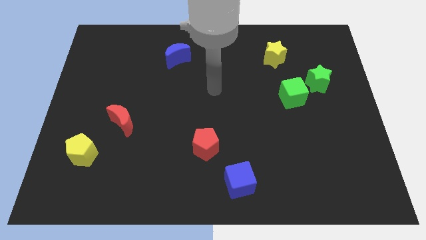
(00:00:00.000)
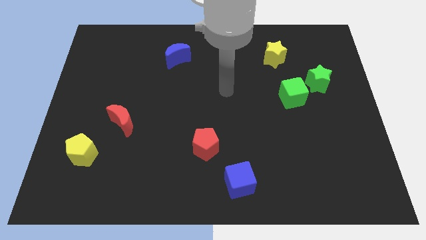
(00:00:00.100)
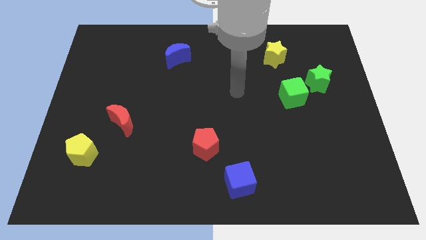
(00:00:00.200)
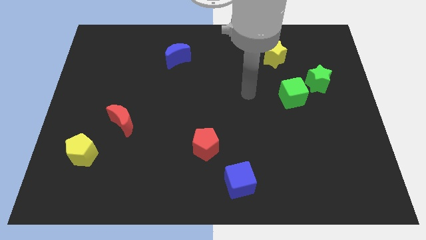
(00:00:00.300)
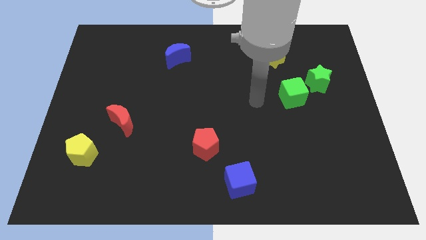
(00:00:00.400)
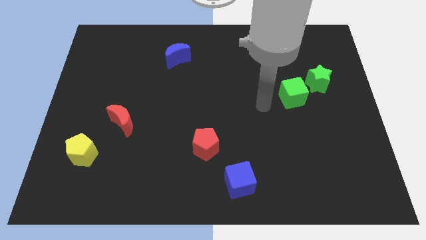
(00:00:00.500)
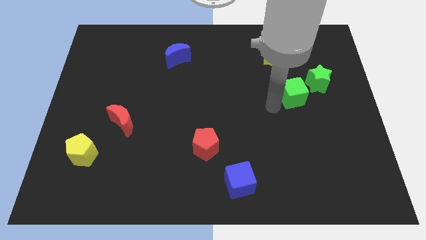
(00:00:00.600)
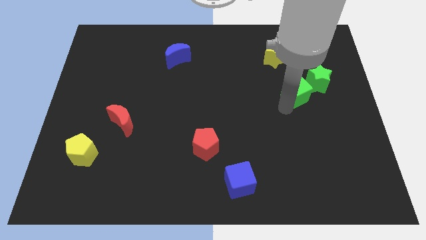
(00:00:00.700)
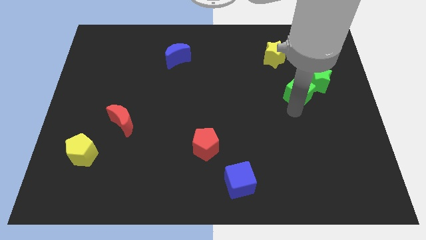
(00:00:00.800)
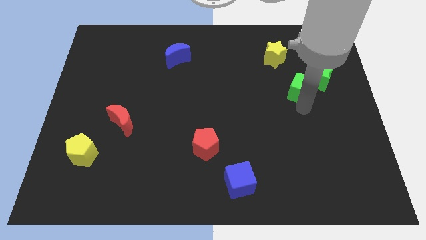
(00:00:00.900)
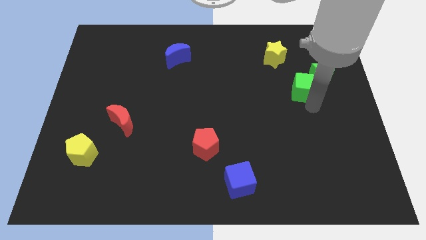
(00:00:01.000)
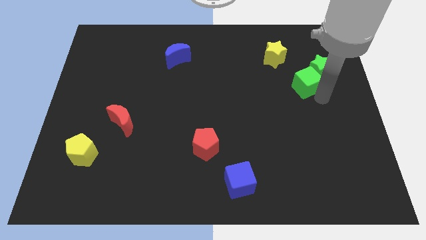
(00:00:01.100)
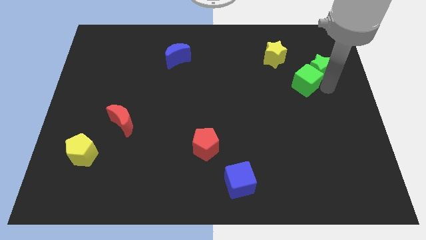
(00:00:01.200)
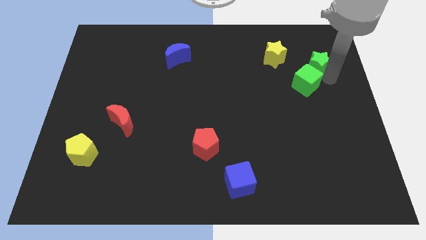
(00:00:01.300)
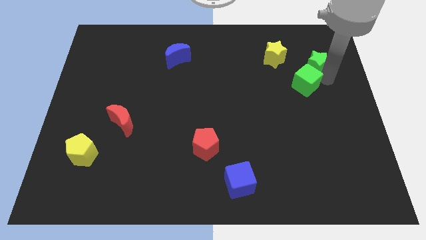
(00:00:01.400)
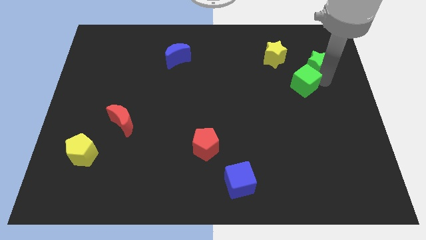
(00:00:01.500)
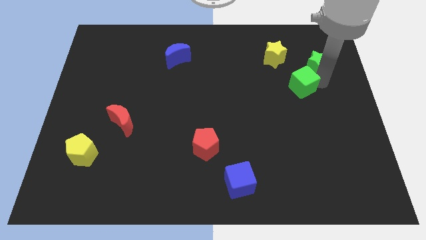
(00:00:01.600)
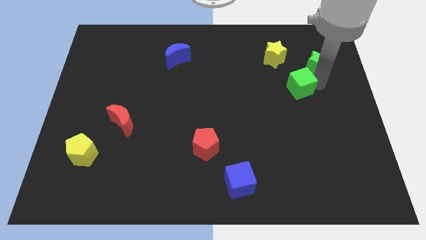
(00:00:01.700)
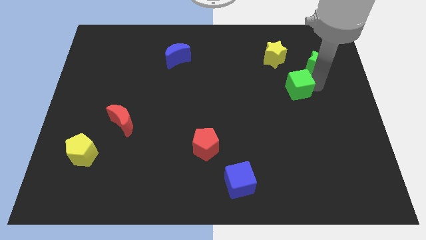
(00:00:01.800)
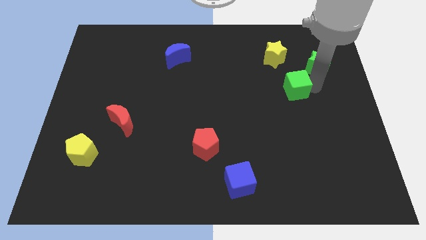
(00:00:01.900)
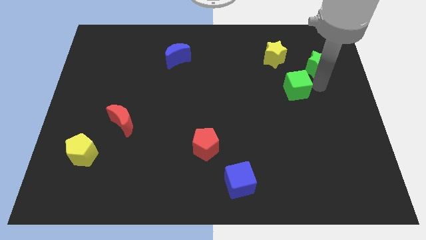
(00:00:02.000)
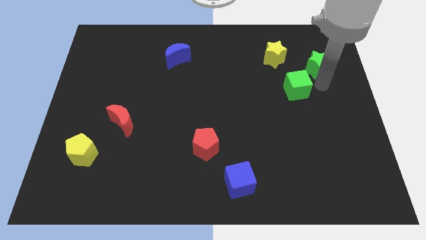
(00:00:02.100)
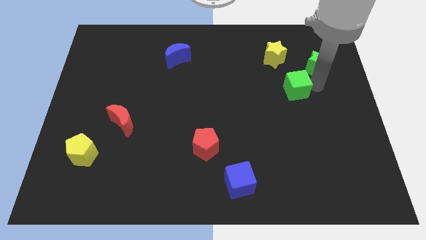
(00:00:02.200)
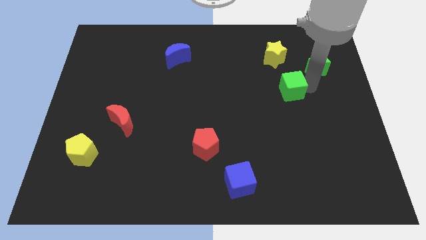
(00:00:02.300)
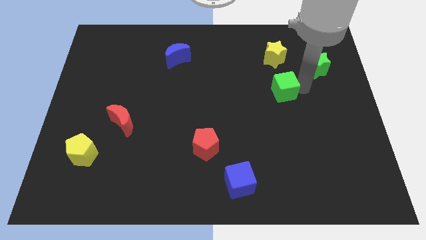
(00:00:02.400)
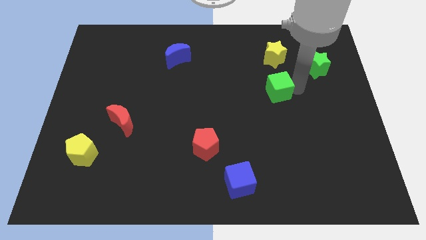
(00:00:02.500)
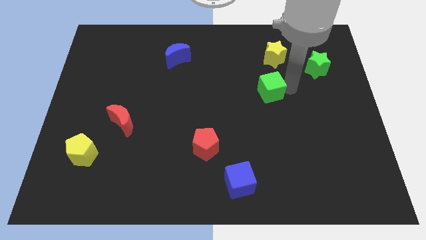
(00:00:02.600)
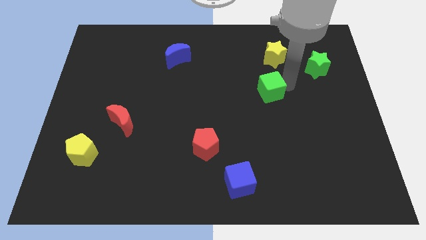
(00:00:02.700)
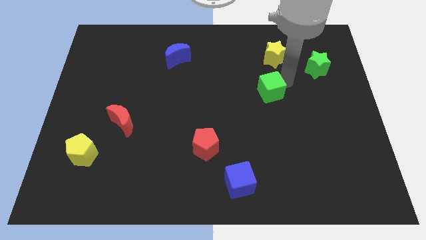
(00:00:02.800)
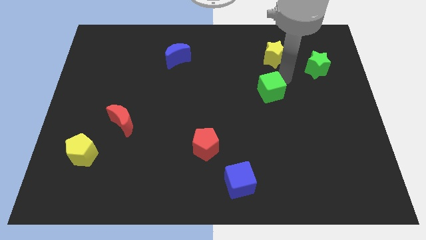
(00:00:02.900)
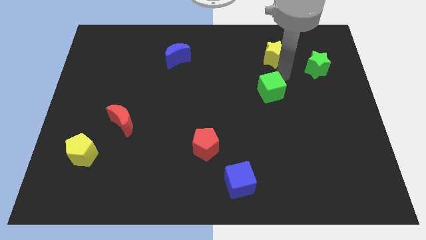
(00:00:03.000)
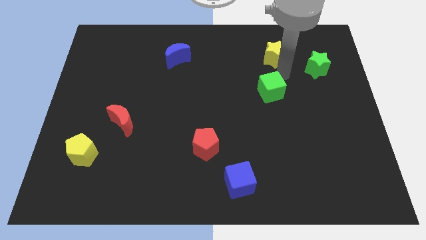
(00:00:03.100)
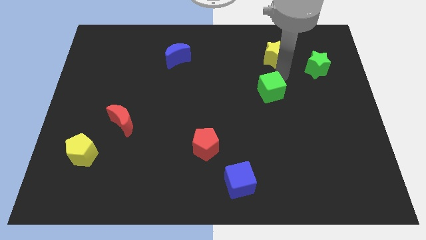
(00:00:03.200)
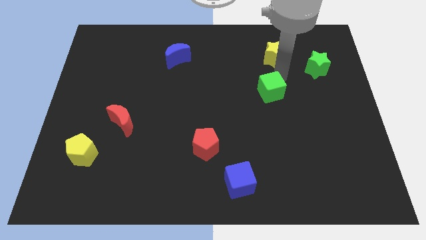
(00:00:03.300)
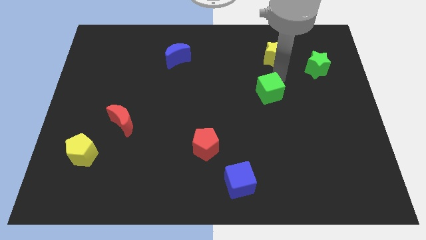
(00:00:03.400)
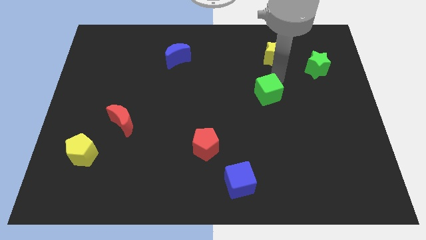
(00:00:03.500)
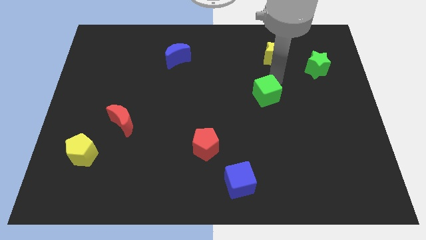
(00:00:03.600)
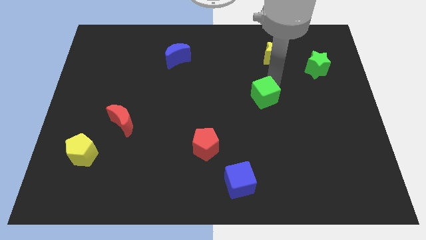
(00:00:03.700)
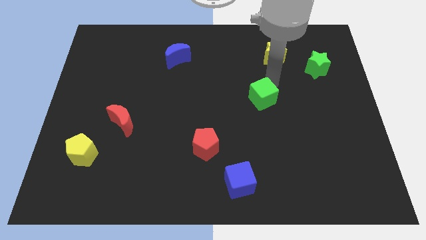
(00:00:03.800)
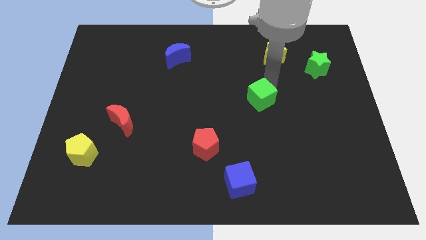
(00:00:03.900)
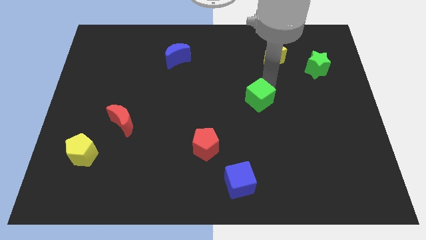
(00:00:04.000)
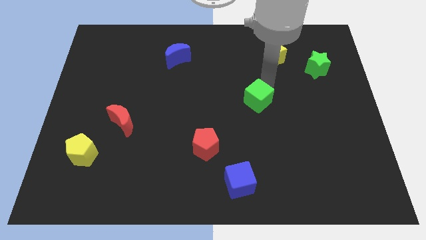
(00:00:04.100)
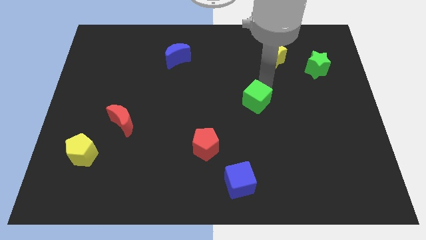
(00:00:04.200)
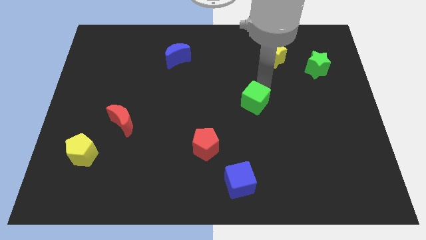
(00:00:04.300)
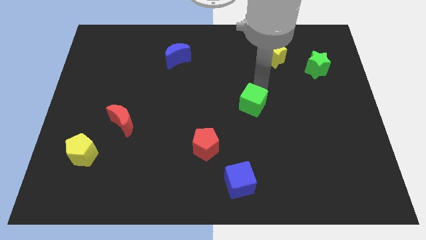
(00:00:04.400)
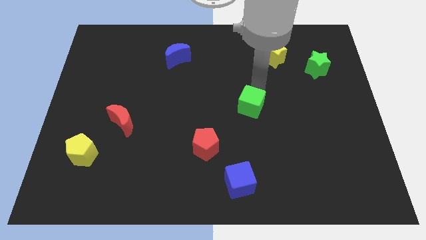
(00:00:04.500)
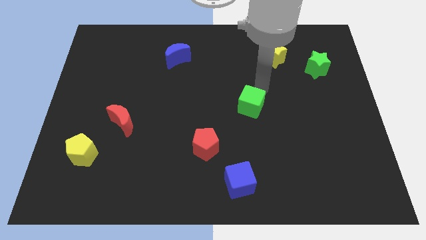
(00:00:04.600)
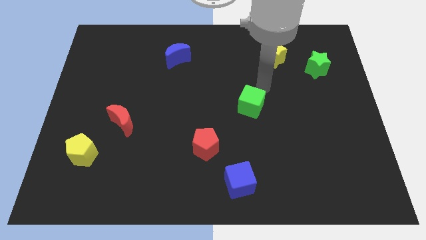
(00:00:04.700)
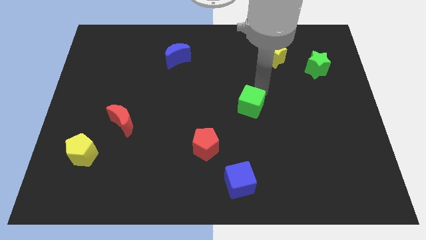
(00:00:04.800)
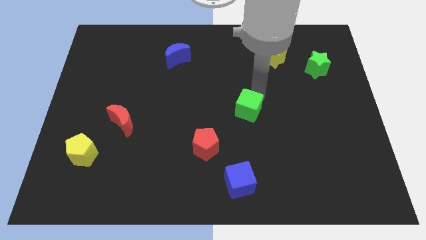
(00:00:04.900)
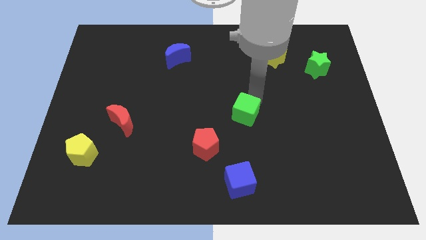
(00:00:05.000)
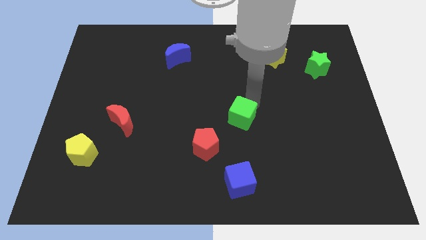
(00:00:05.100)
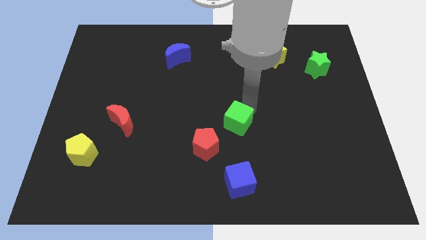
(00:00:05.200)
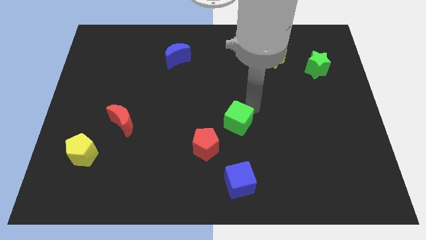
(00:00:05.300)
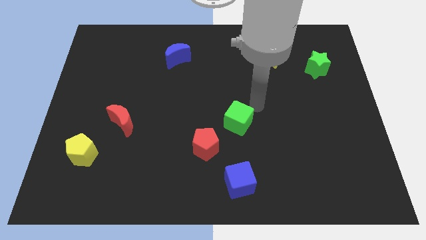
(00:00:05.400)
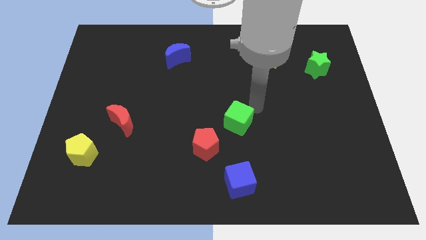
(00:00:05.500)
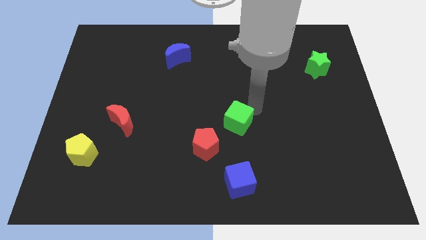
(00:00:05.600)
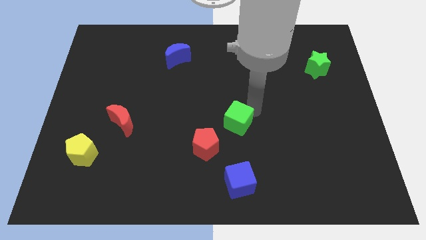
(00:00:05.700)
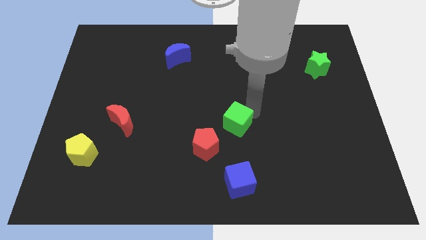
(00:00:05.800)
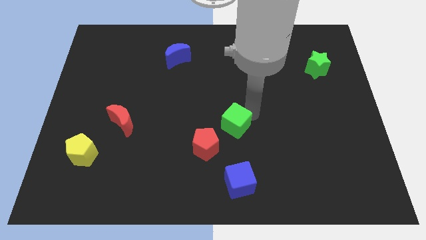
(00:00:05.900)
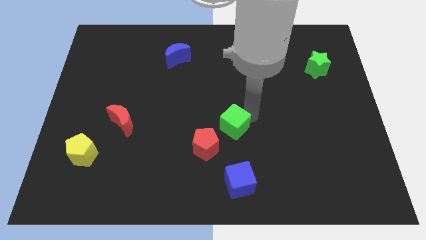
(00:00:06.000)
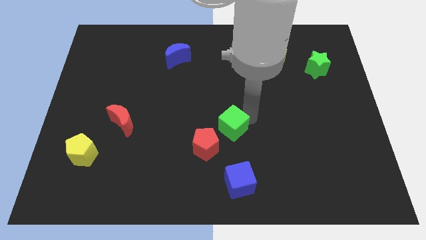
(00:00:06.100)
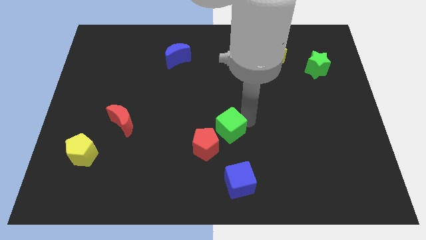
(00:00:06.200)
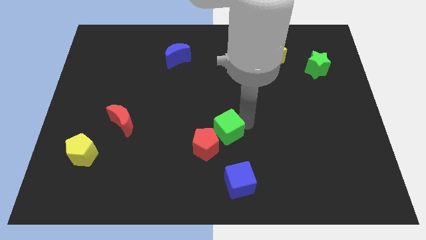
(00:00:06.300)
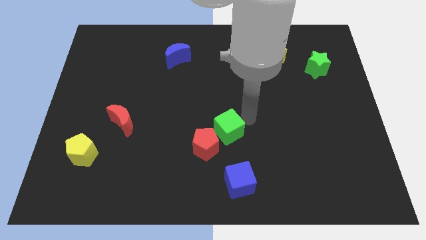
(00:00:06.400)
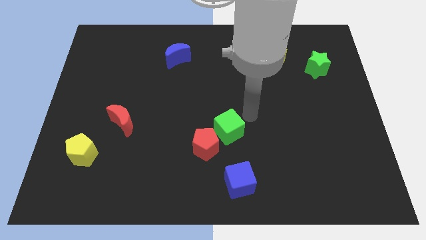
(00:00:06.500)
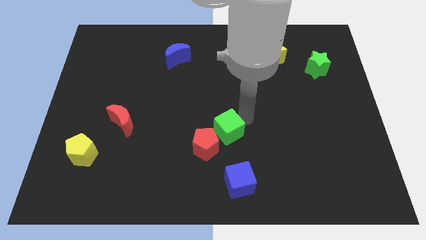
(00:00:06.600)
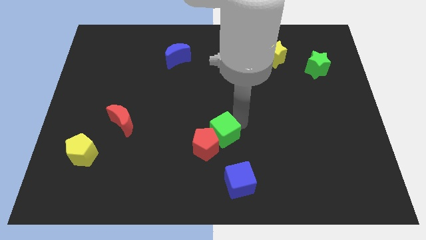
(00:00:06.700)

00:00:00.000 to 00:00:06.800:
push the green cube next to the red pentagon

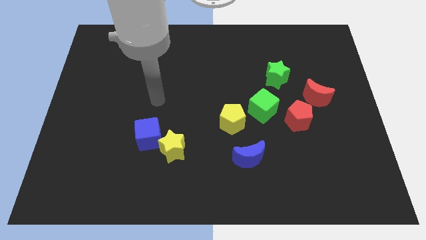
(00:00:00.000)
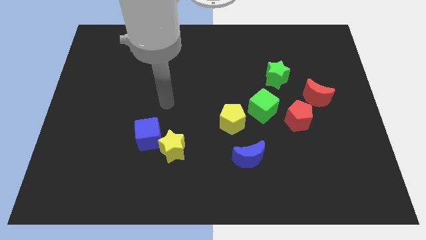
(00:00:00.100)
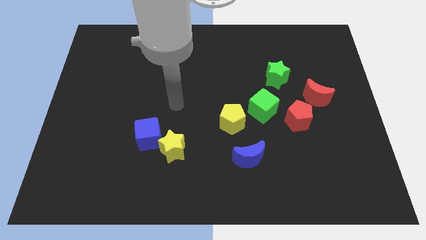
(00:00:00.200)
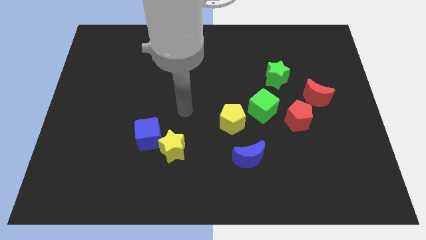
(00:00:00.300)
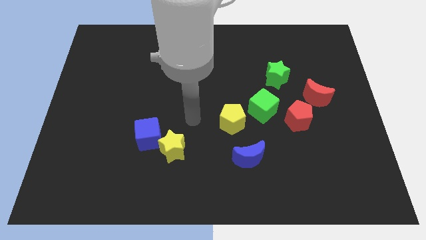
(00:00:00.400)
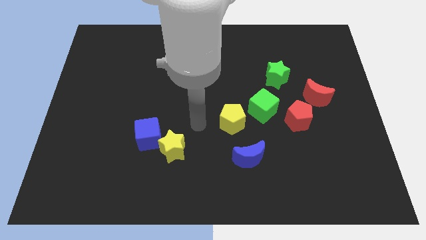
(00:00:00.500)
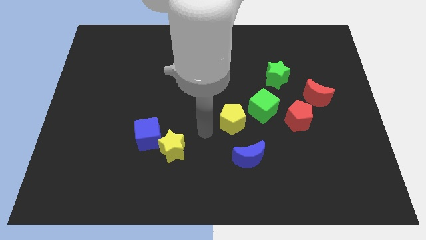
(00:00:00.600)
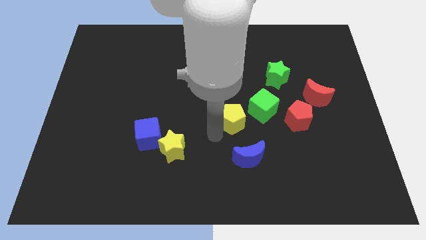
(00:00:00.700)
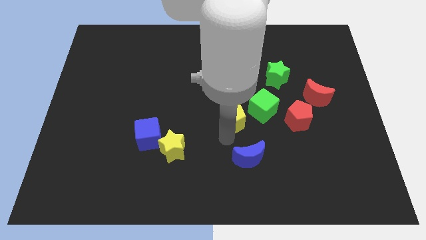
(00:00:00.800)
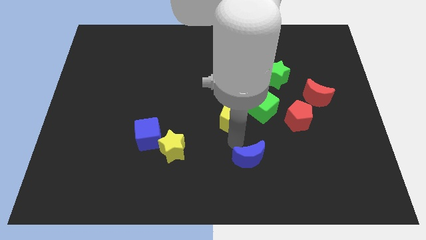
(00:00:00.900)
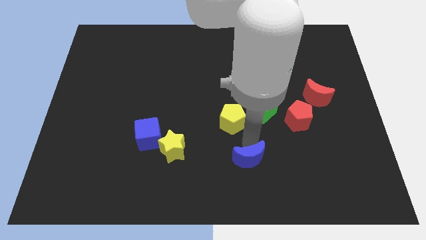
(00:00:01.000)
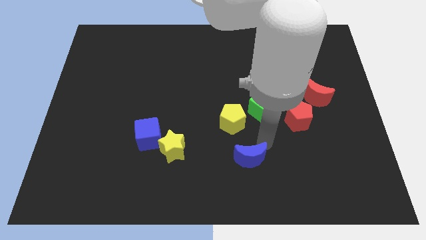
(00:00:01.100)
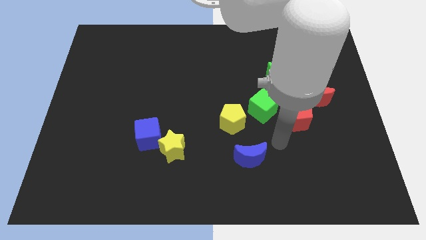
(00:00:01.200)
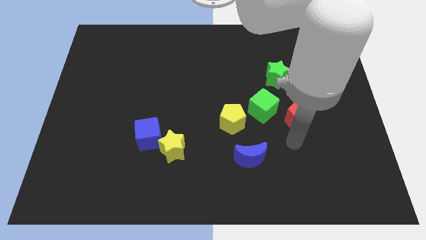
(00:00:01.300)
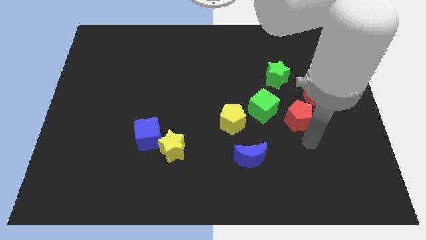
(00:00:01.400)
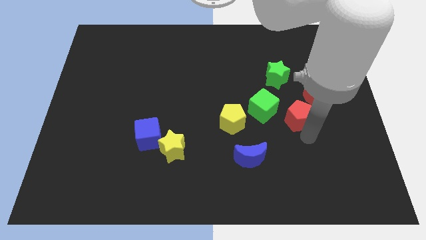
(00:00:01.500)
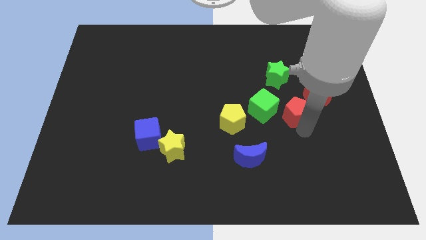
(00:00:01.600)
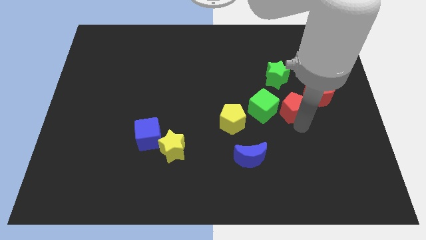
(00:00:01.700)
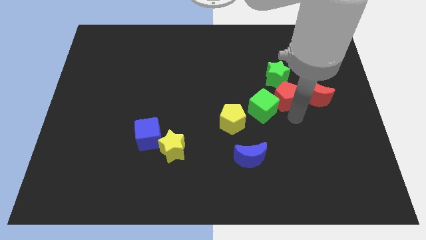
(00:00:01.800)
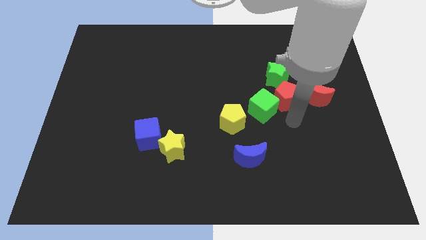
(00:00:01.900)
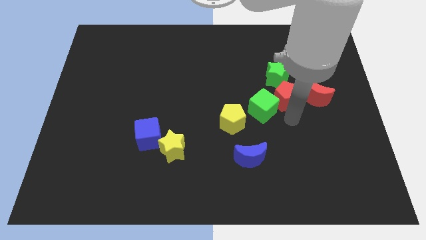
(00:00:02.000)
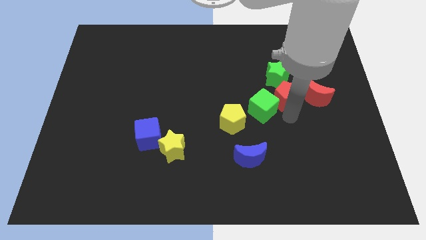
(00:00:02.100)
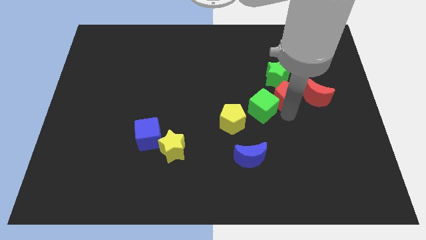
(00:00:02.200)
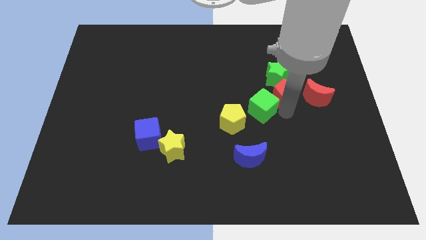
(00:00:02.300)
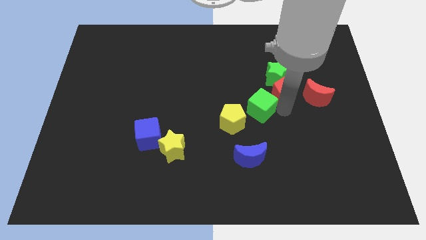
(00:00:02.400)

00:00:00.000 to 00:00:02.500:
slide the red pentagon towards the green star
